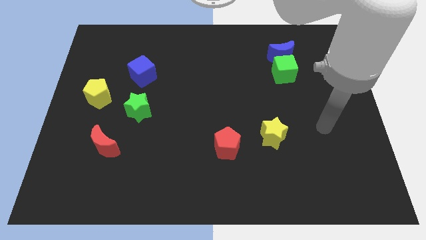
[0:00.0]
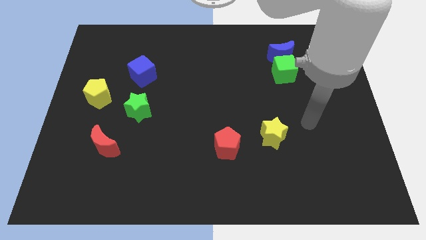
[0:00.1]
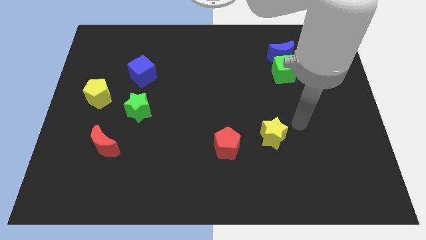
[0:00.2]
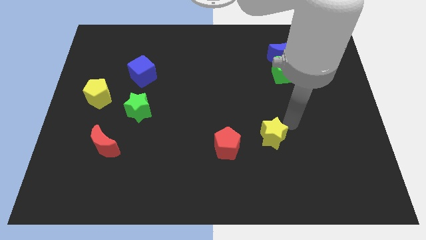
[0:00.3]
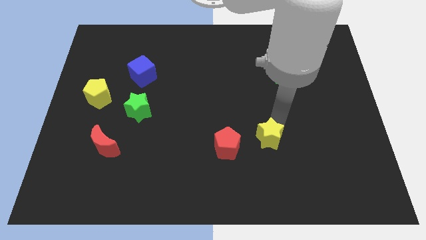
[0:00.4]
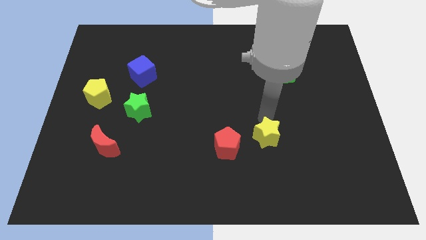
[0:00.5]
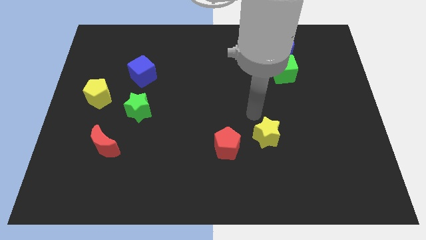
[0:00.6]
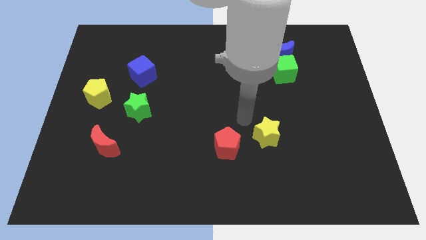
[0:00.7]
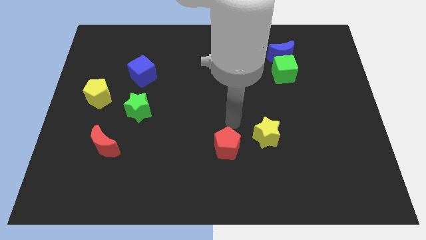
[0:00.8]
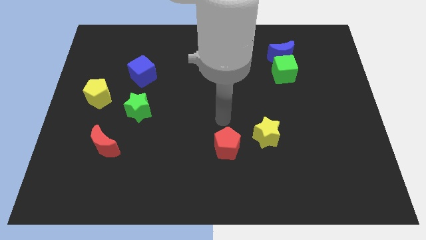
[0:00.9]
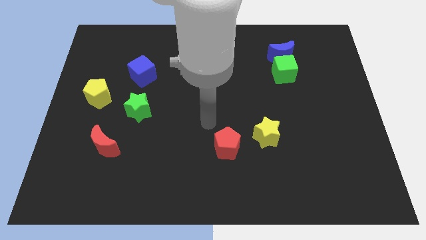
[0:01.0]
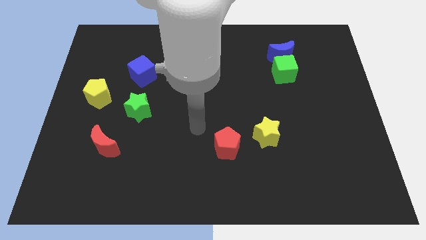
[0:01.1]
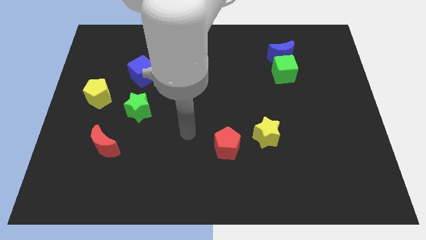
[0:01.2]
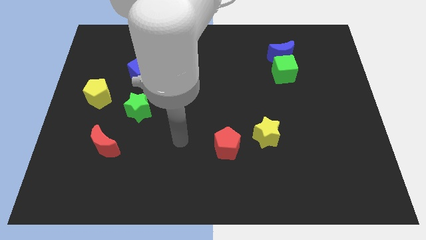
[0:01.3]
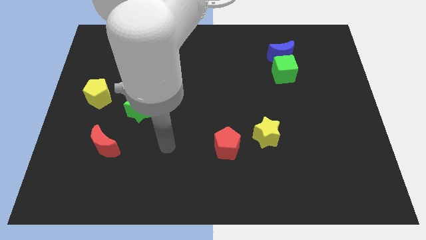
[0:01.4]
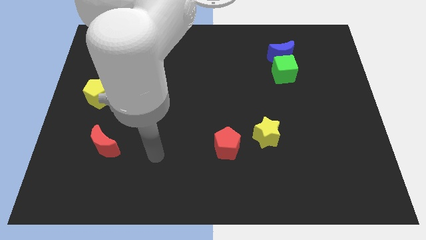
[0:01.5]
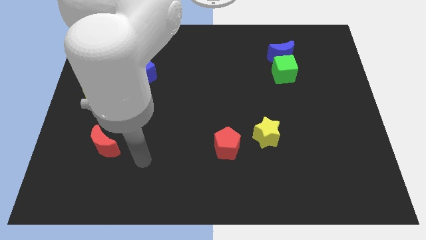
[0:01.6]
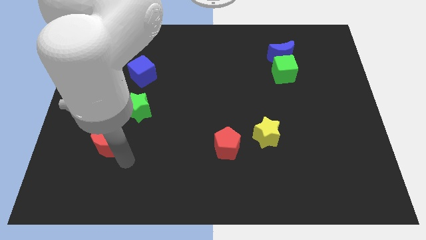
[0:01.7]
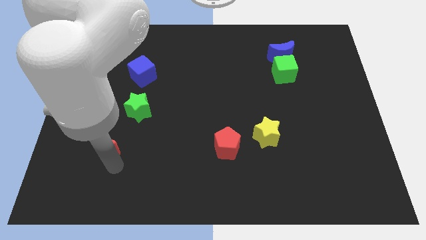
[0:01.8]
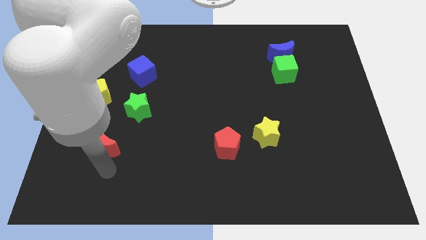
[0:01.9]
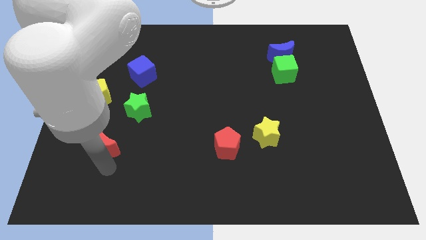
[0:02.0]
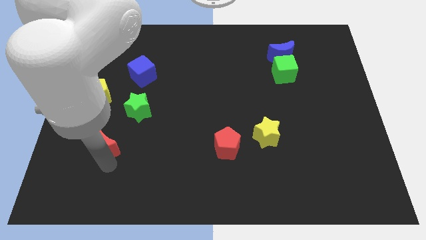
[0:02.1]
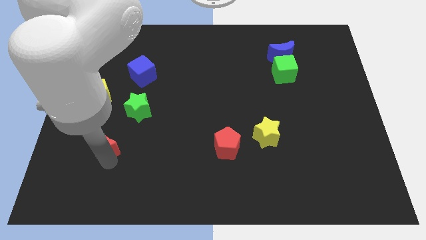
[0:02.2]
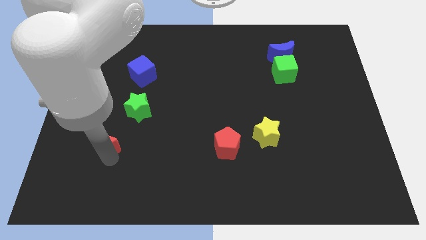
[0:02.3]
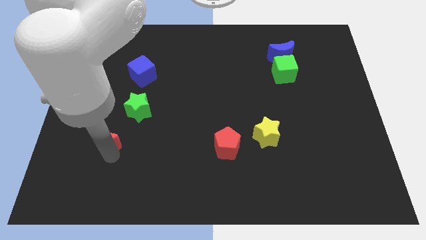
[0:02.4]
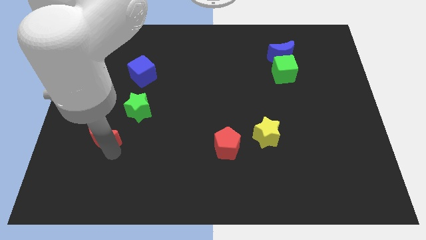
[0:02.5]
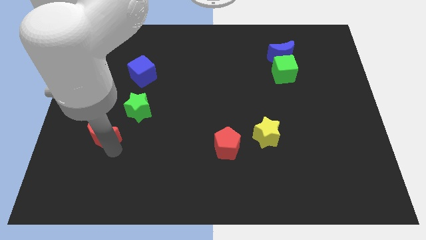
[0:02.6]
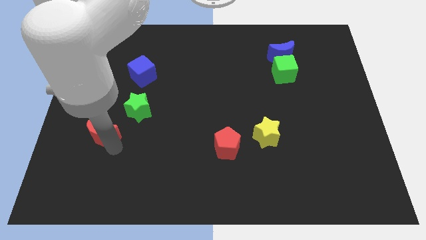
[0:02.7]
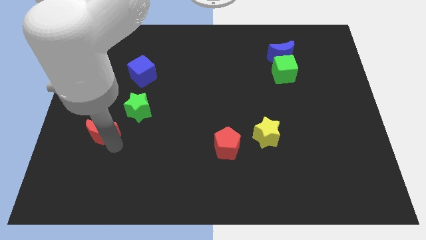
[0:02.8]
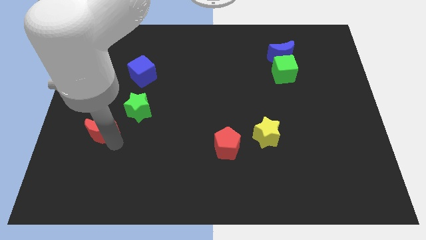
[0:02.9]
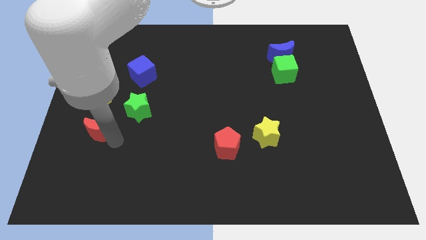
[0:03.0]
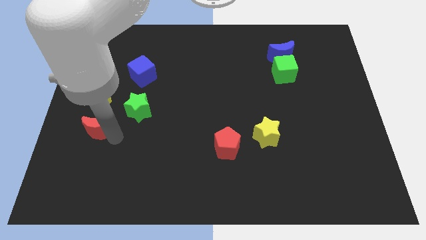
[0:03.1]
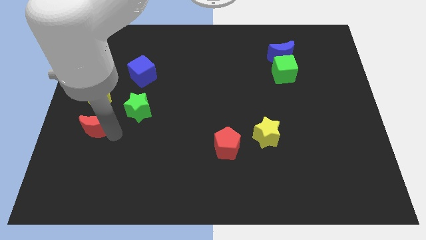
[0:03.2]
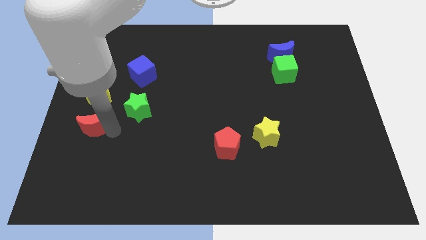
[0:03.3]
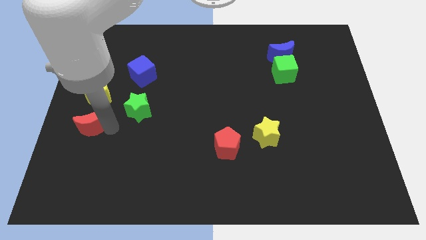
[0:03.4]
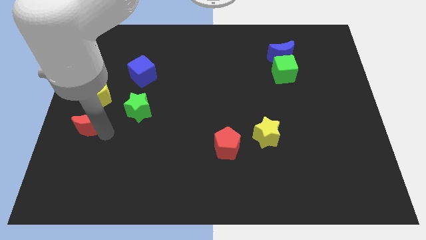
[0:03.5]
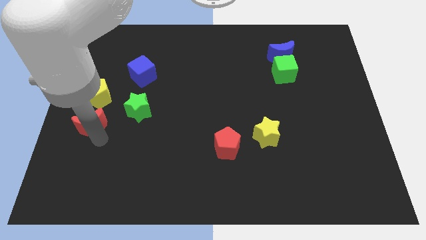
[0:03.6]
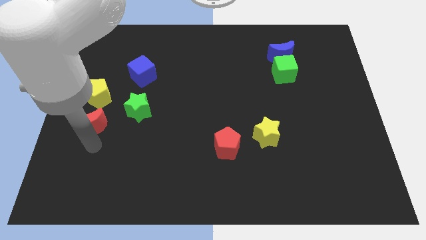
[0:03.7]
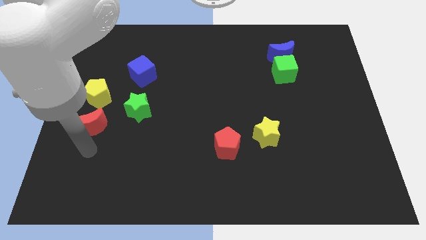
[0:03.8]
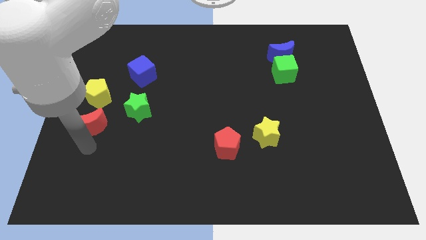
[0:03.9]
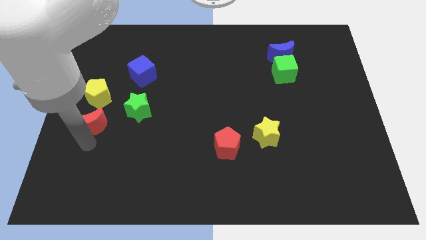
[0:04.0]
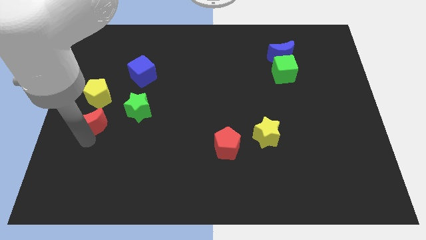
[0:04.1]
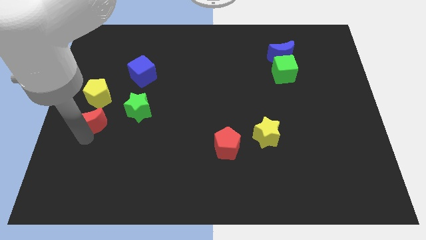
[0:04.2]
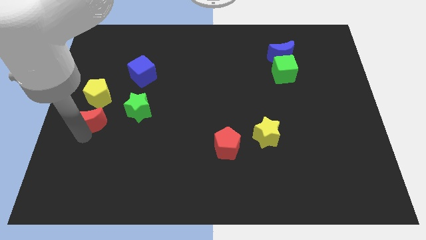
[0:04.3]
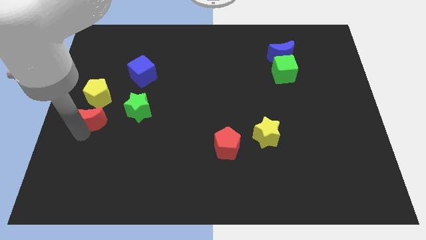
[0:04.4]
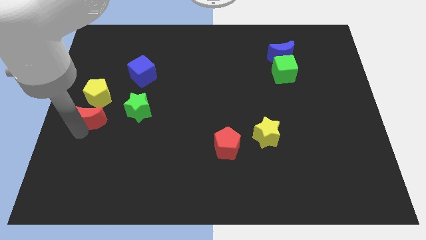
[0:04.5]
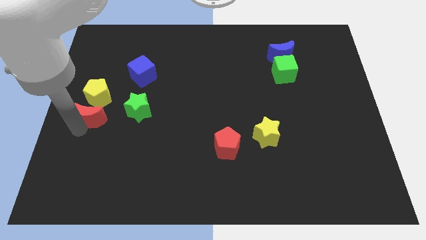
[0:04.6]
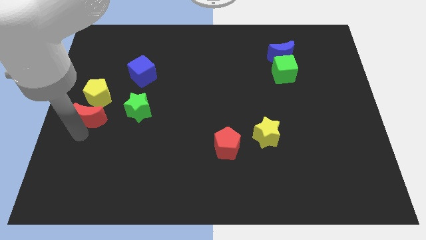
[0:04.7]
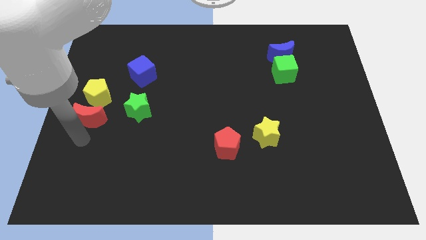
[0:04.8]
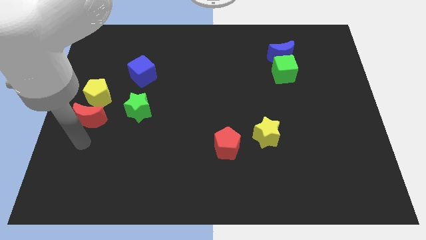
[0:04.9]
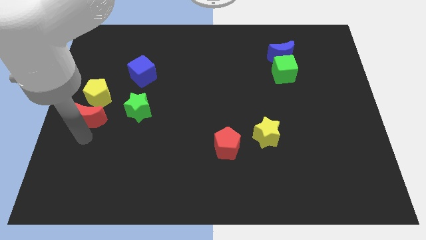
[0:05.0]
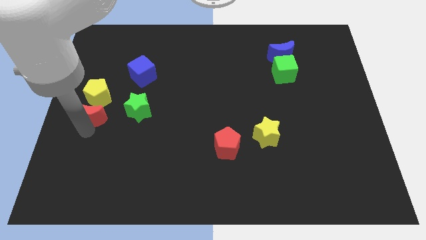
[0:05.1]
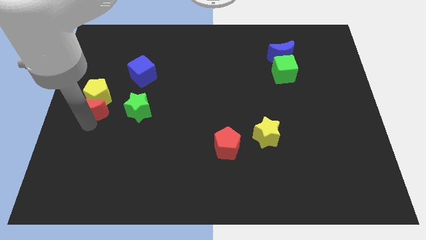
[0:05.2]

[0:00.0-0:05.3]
move the red moon to the yellow pentagon

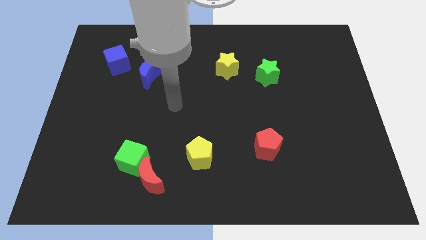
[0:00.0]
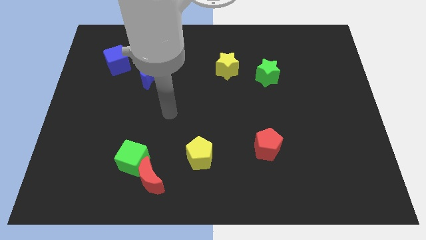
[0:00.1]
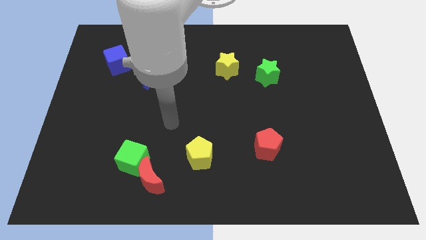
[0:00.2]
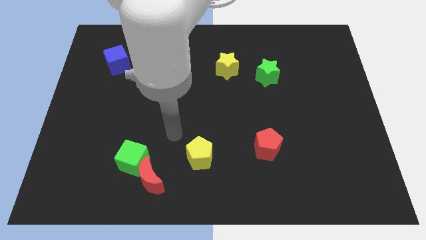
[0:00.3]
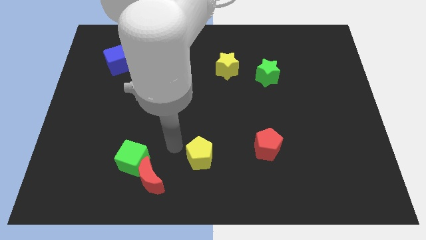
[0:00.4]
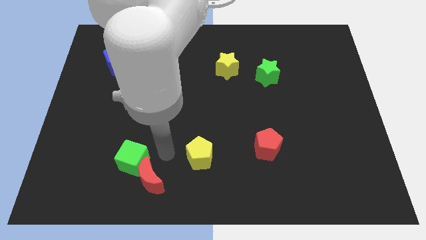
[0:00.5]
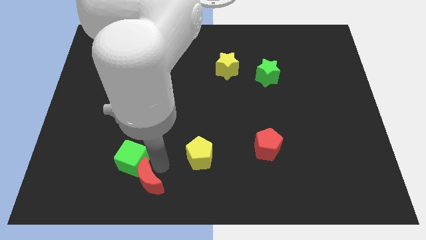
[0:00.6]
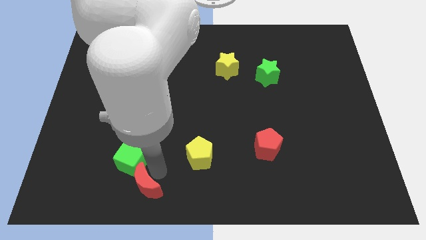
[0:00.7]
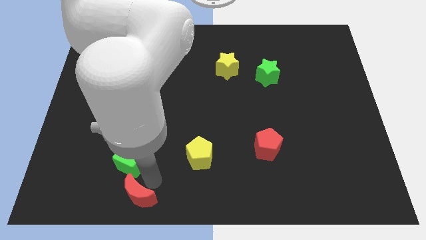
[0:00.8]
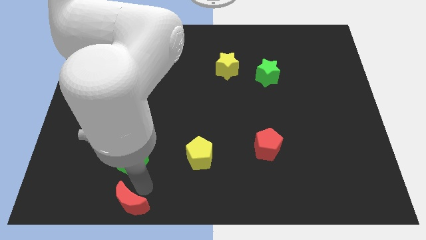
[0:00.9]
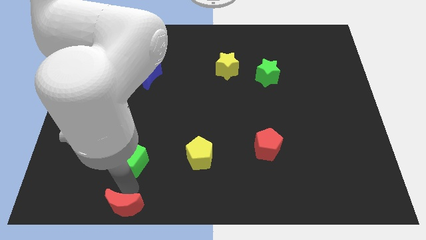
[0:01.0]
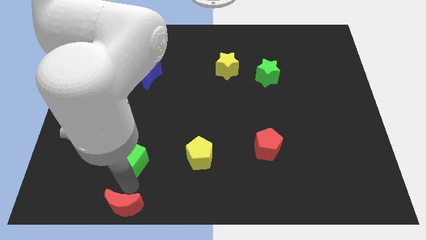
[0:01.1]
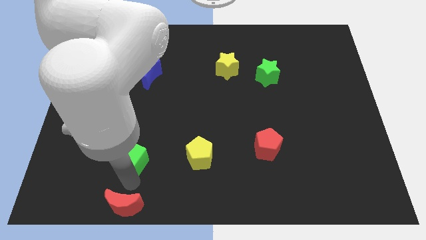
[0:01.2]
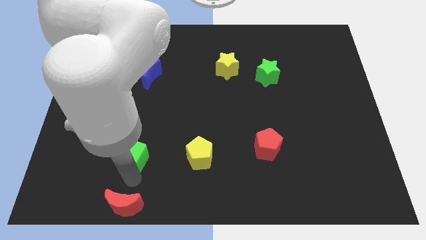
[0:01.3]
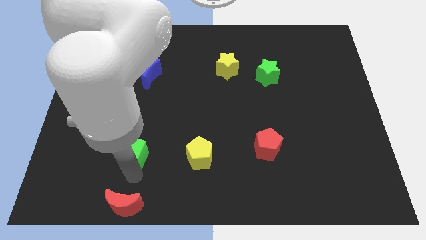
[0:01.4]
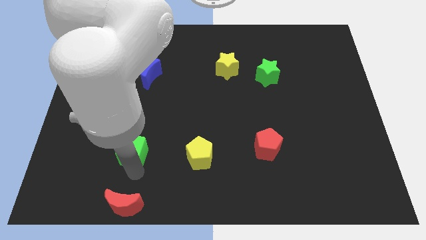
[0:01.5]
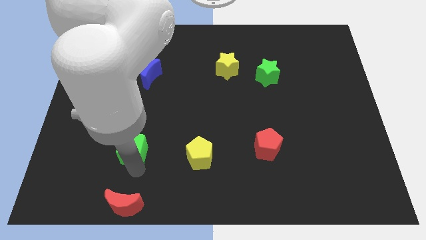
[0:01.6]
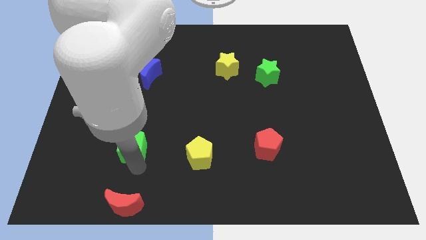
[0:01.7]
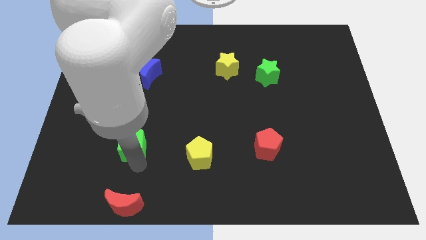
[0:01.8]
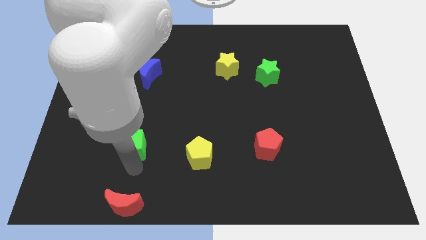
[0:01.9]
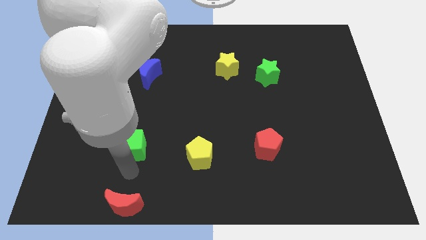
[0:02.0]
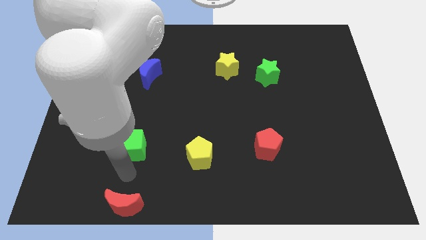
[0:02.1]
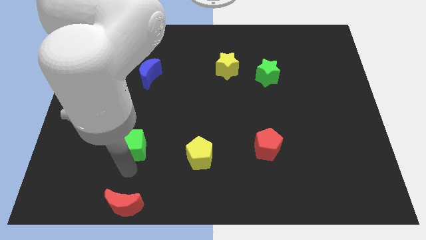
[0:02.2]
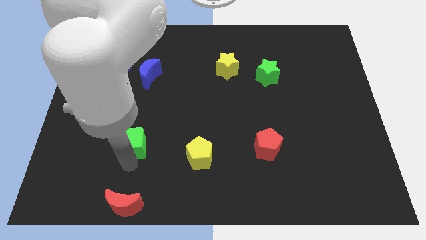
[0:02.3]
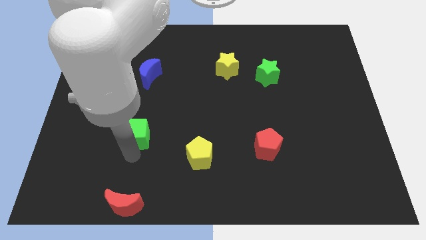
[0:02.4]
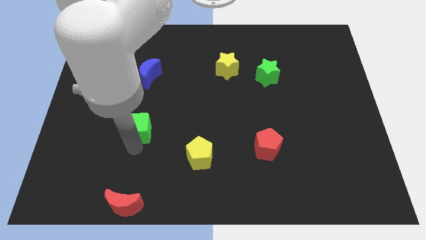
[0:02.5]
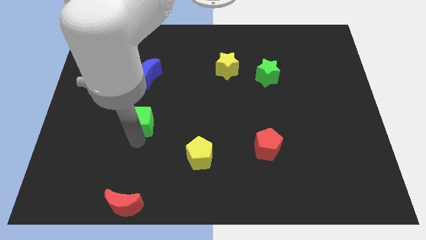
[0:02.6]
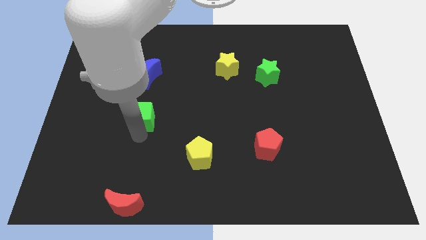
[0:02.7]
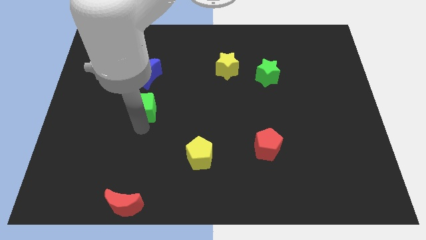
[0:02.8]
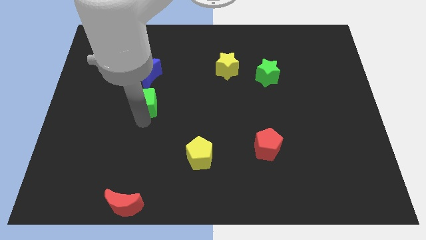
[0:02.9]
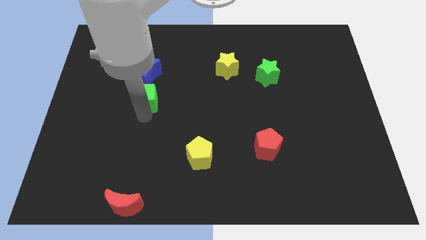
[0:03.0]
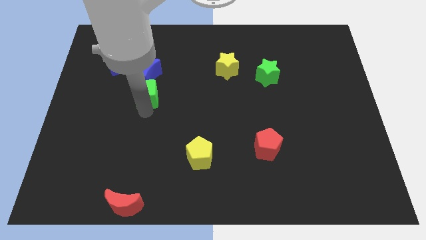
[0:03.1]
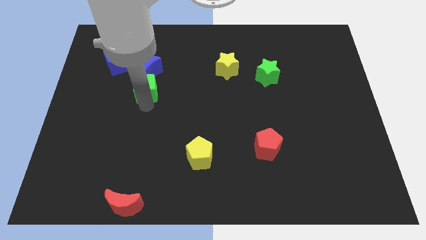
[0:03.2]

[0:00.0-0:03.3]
put the green cube towards the blue moon
